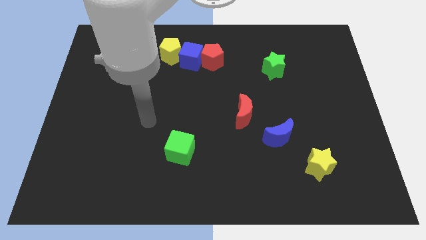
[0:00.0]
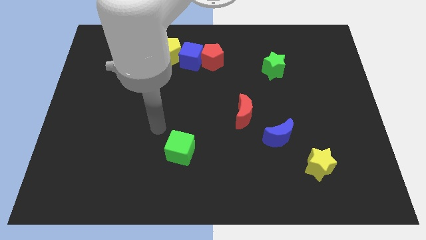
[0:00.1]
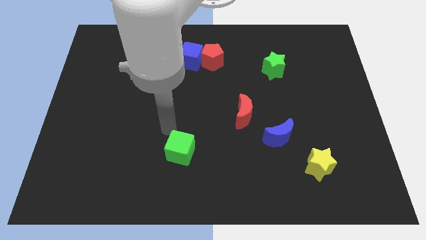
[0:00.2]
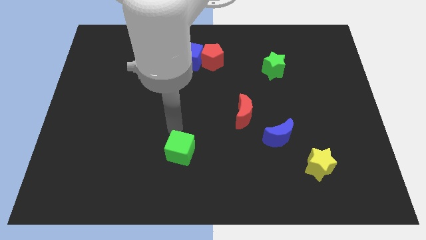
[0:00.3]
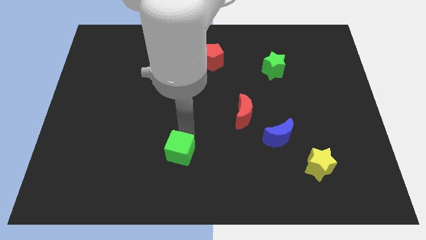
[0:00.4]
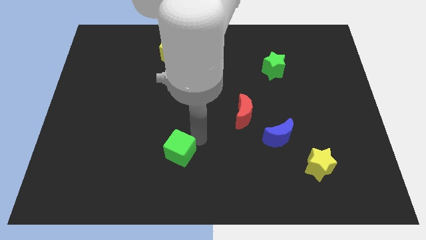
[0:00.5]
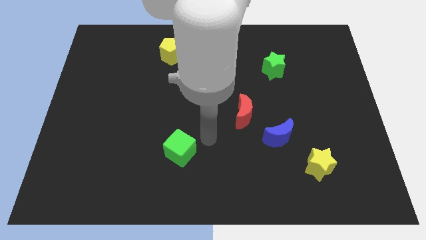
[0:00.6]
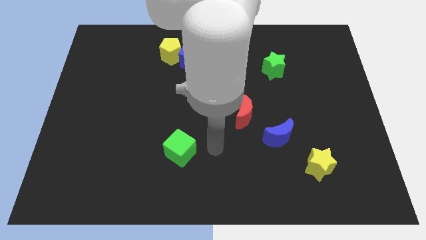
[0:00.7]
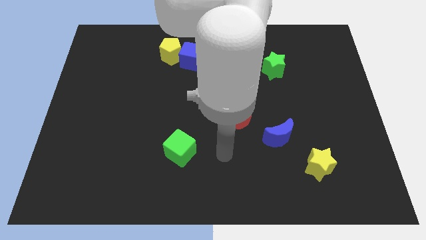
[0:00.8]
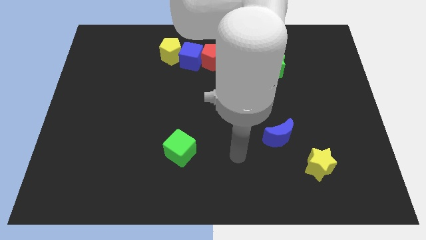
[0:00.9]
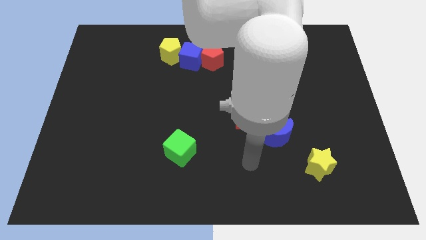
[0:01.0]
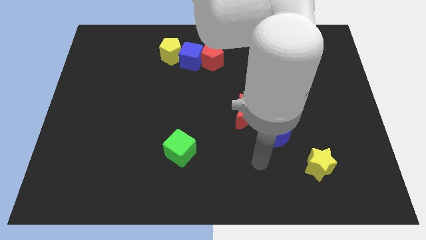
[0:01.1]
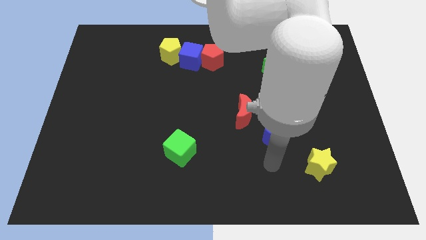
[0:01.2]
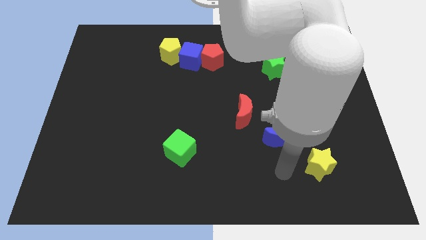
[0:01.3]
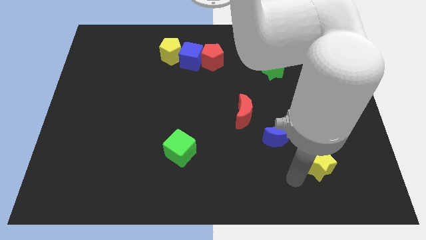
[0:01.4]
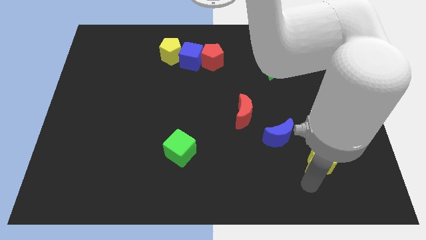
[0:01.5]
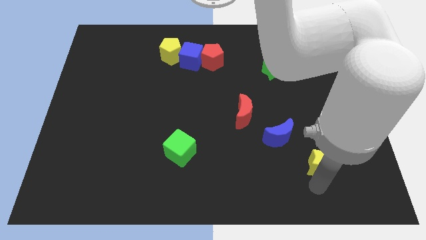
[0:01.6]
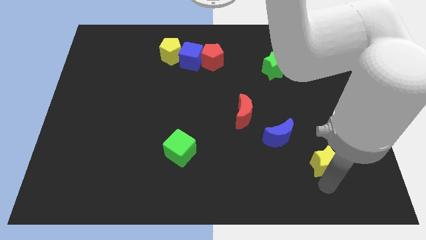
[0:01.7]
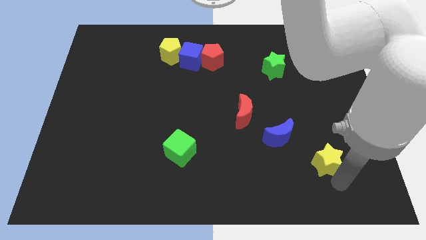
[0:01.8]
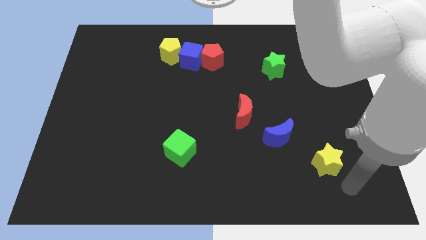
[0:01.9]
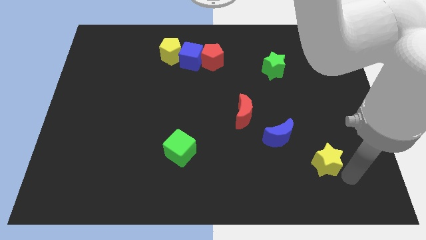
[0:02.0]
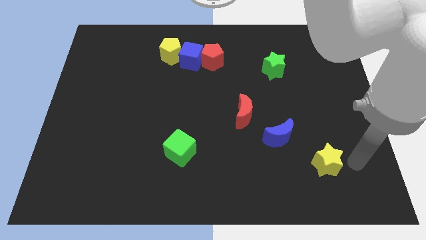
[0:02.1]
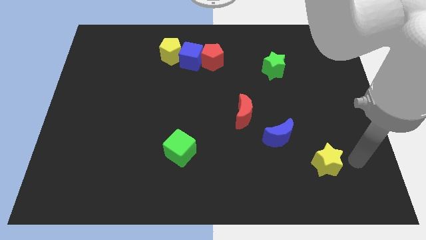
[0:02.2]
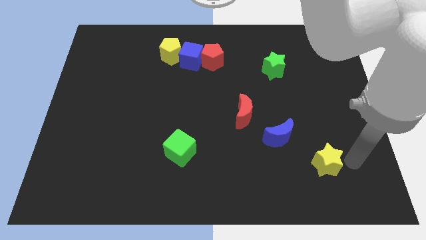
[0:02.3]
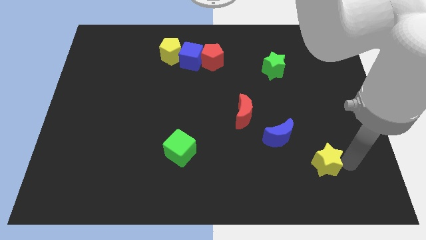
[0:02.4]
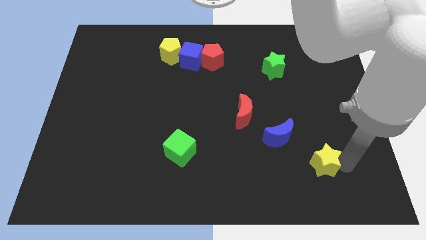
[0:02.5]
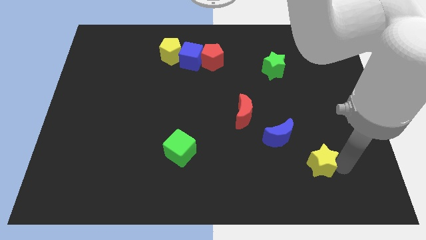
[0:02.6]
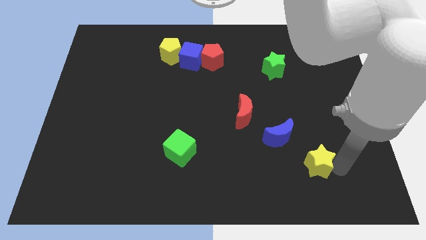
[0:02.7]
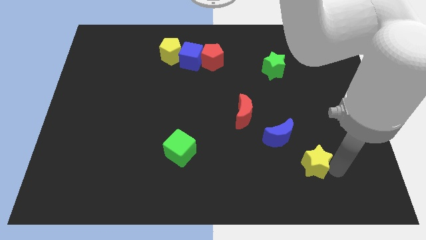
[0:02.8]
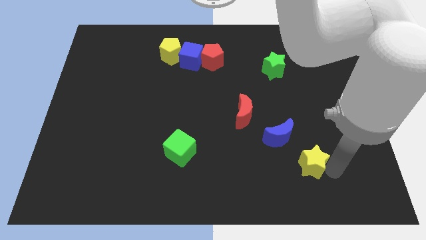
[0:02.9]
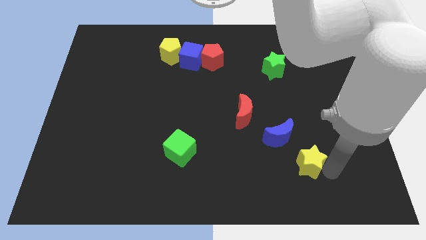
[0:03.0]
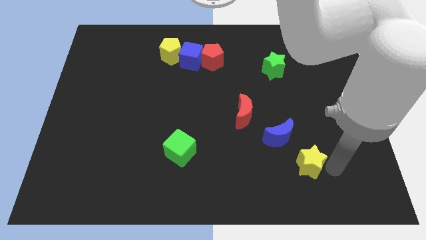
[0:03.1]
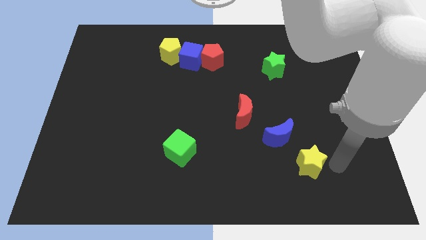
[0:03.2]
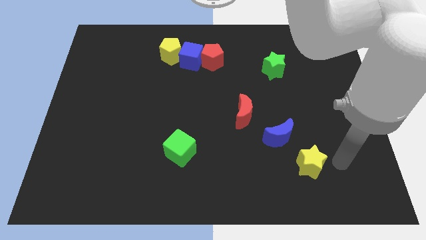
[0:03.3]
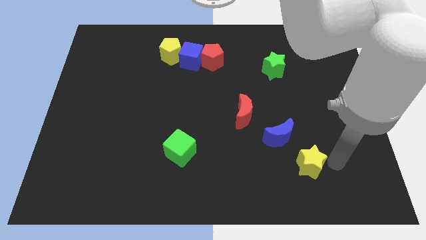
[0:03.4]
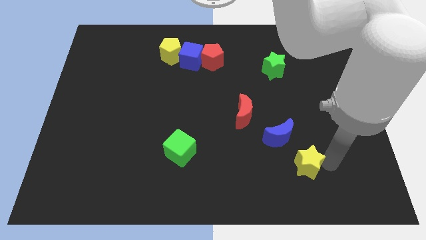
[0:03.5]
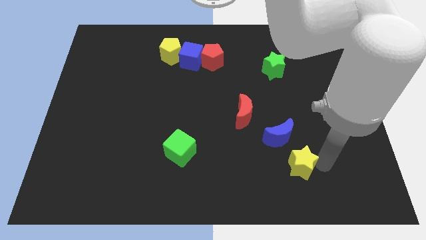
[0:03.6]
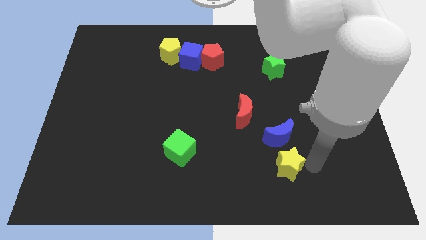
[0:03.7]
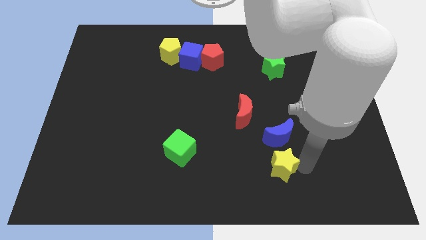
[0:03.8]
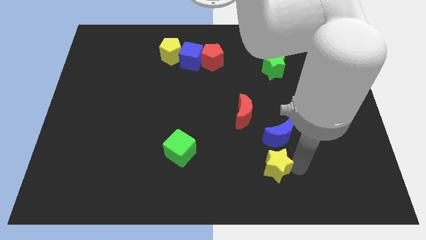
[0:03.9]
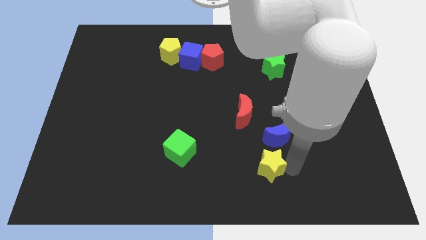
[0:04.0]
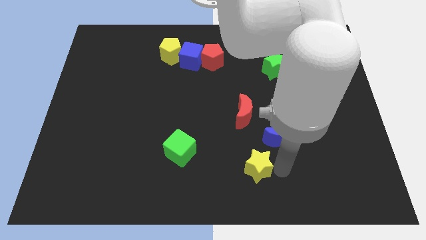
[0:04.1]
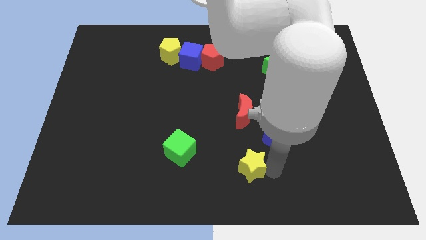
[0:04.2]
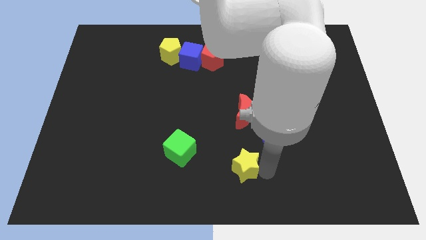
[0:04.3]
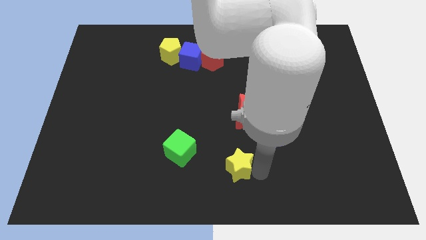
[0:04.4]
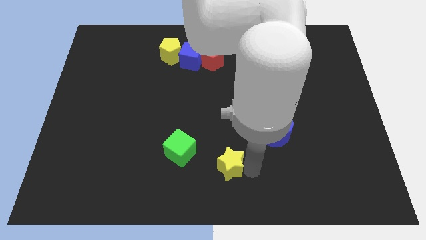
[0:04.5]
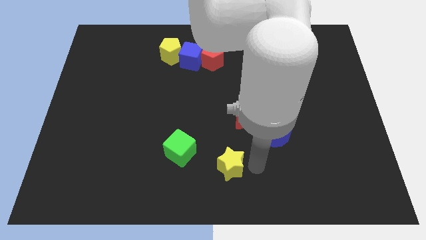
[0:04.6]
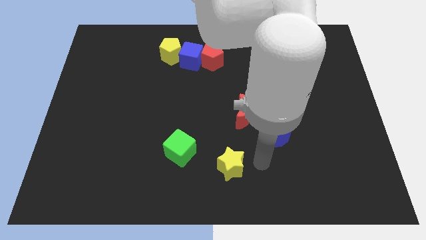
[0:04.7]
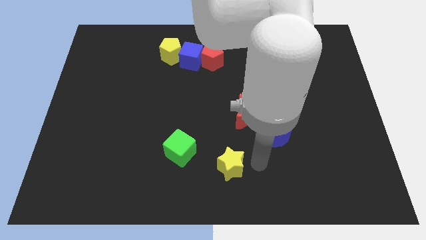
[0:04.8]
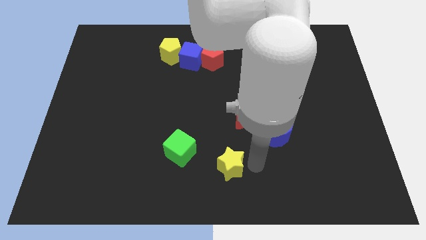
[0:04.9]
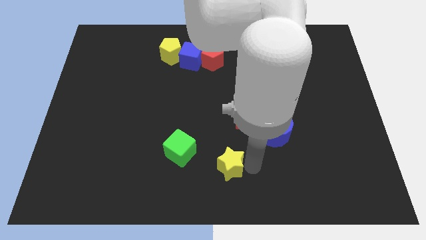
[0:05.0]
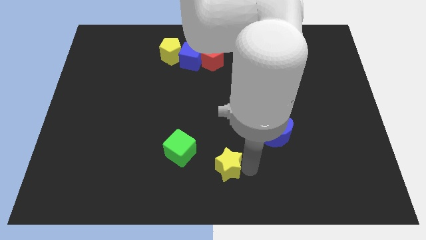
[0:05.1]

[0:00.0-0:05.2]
put the yellow star to the bottom right side of the green cube

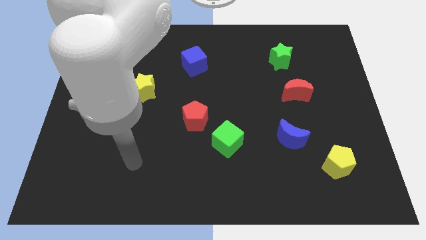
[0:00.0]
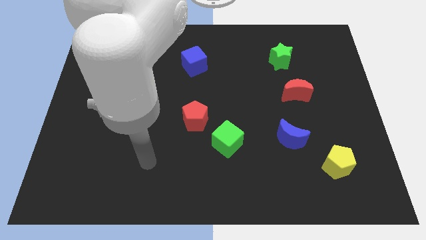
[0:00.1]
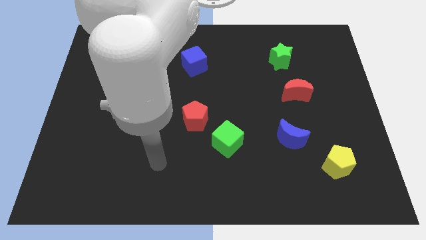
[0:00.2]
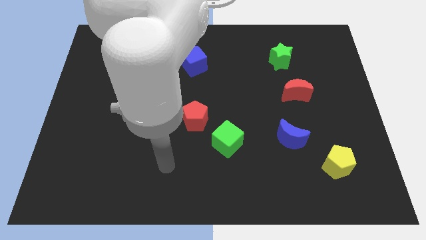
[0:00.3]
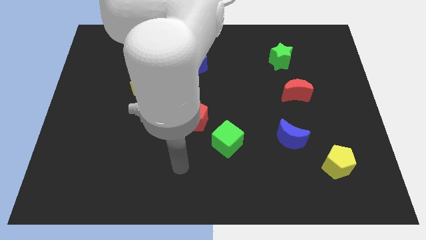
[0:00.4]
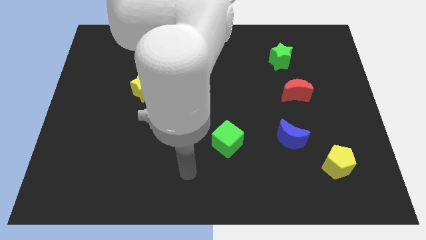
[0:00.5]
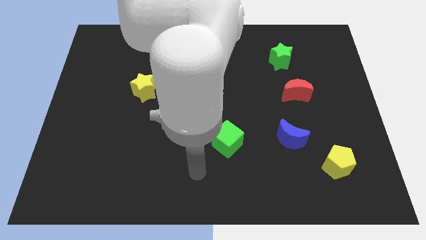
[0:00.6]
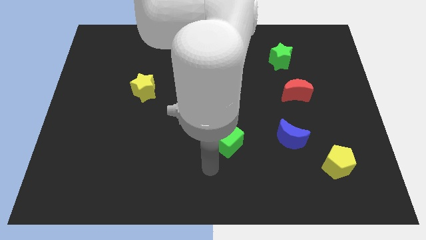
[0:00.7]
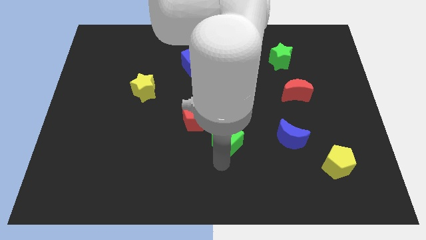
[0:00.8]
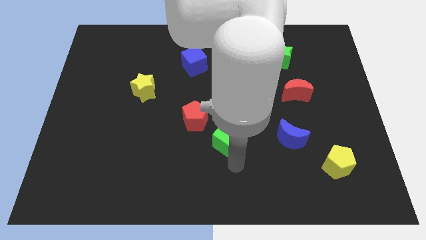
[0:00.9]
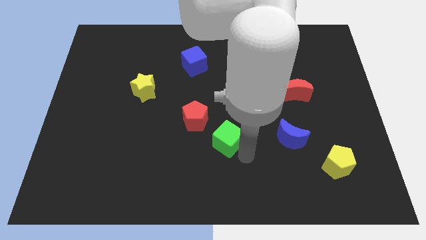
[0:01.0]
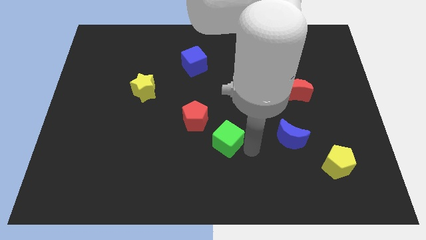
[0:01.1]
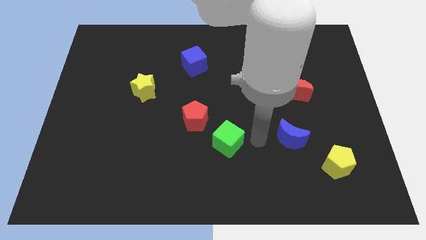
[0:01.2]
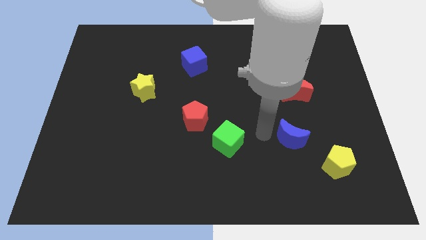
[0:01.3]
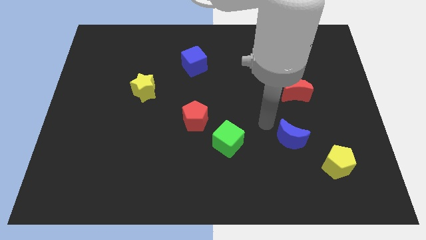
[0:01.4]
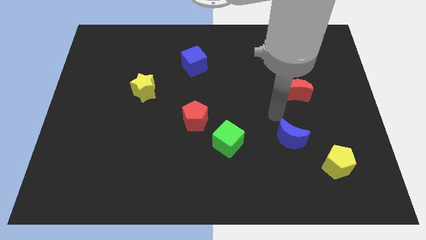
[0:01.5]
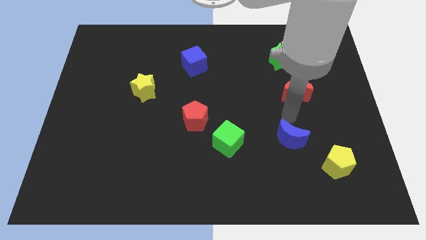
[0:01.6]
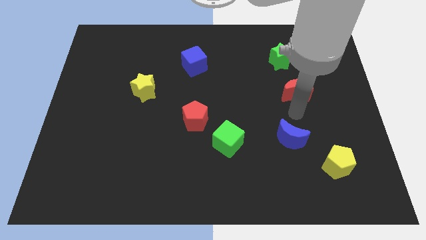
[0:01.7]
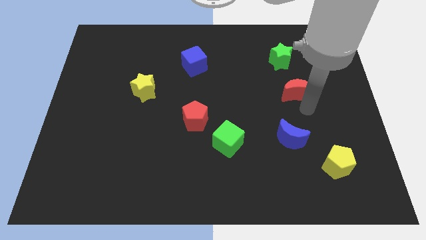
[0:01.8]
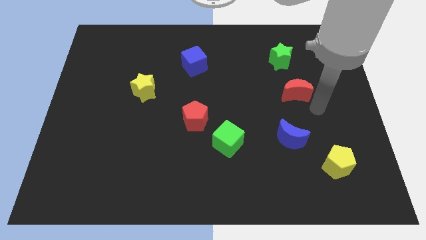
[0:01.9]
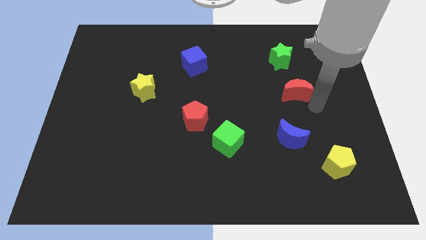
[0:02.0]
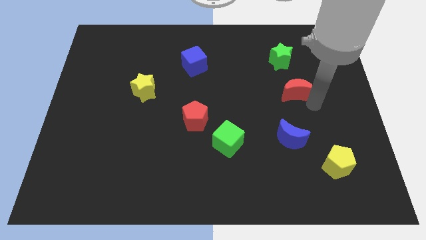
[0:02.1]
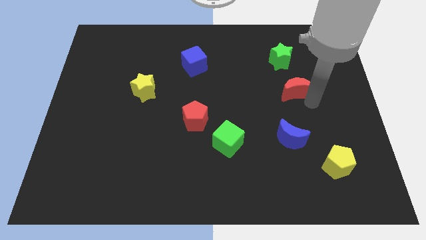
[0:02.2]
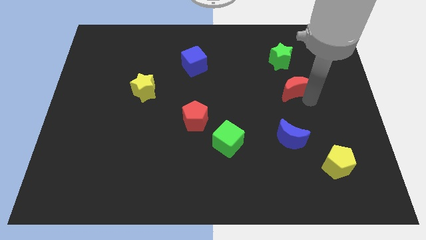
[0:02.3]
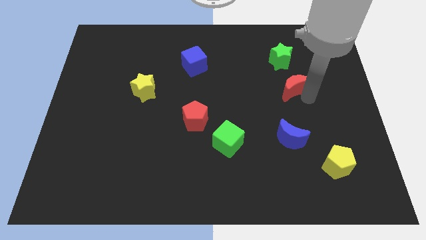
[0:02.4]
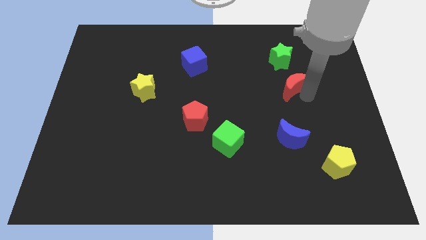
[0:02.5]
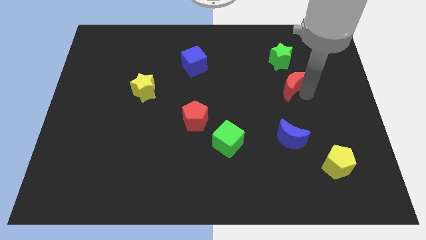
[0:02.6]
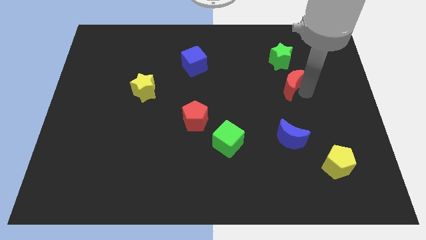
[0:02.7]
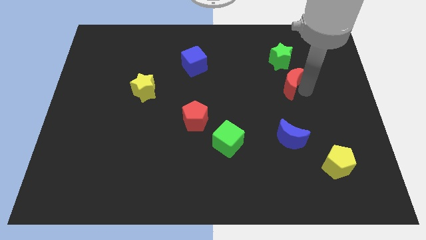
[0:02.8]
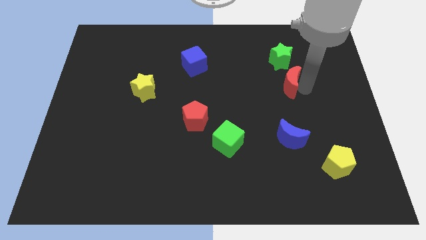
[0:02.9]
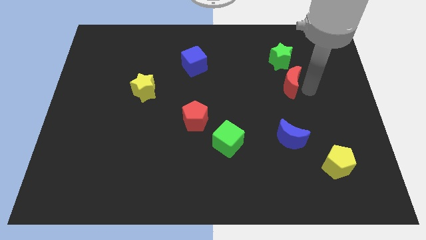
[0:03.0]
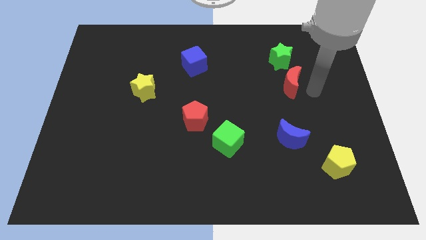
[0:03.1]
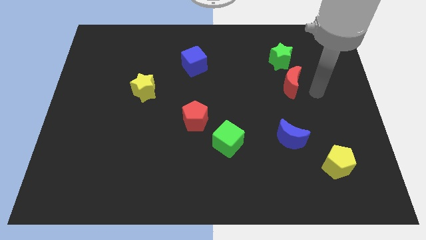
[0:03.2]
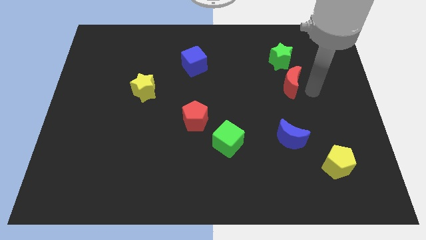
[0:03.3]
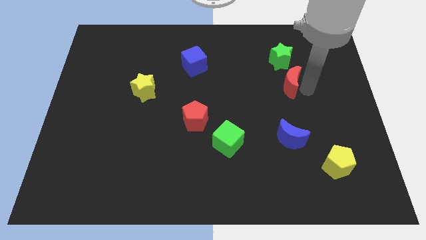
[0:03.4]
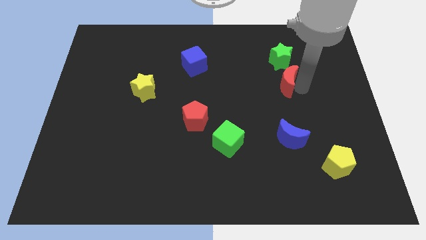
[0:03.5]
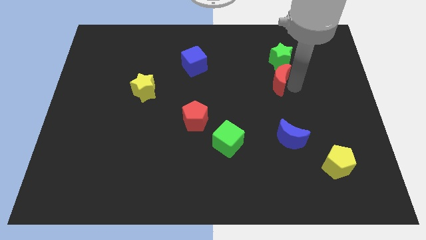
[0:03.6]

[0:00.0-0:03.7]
push the red moon diagonally down and to the left of the green star
